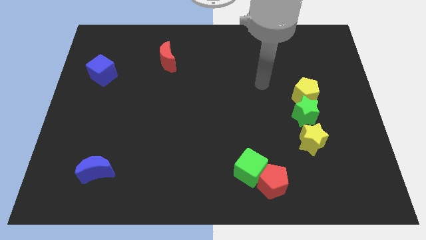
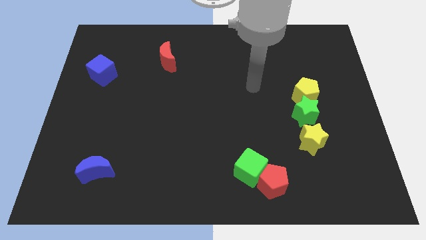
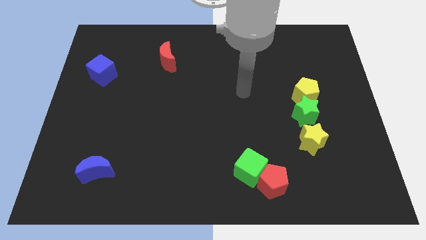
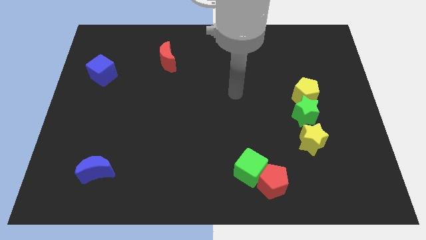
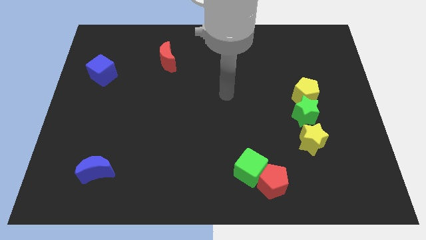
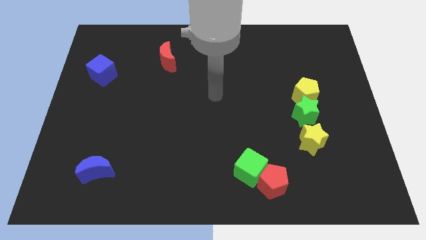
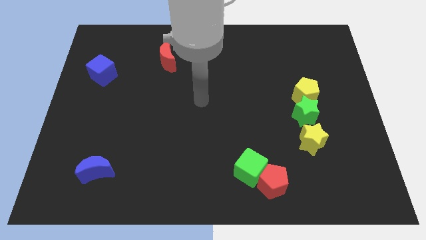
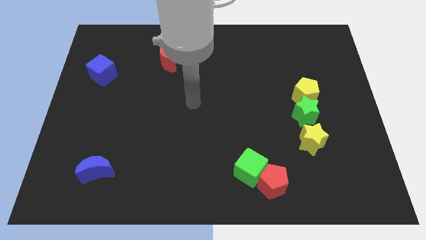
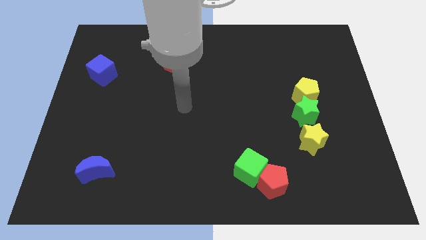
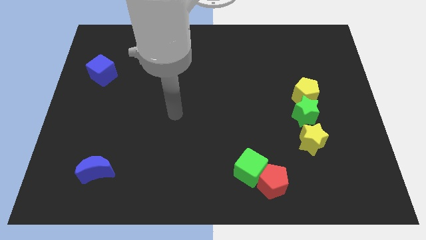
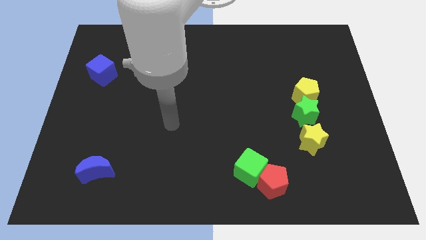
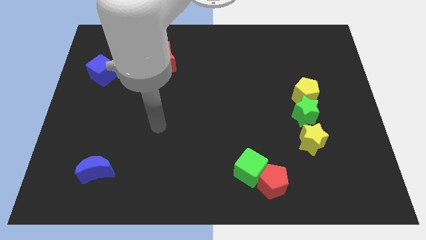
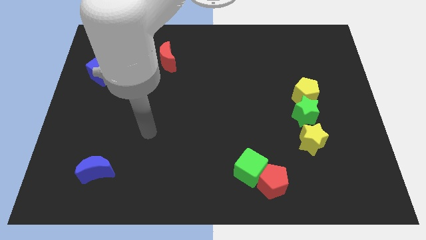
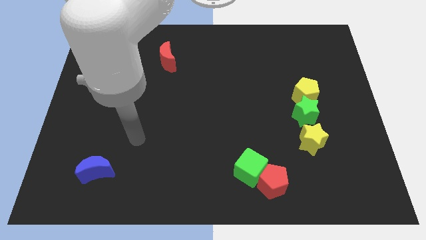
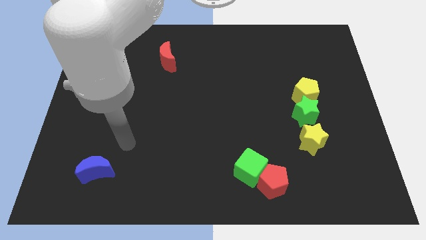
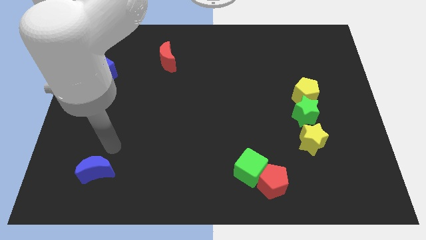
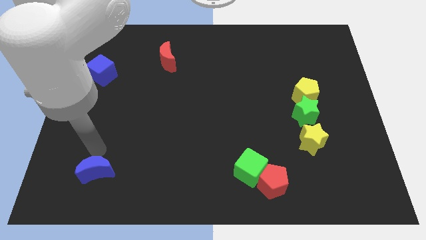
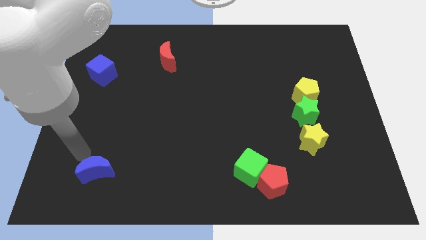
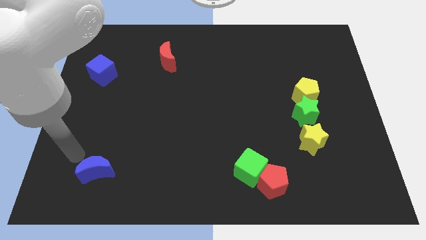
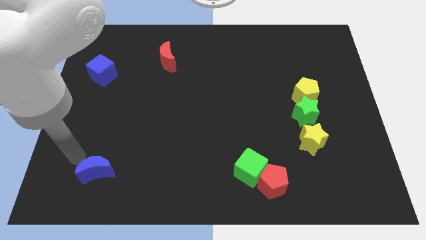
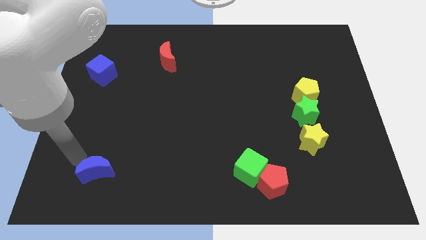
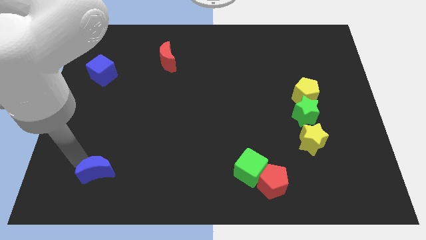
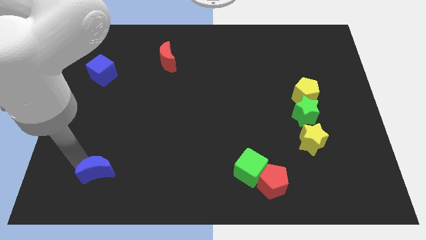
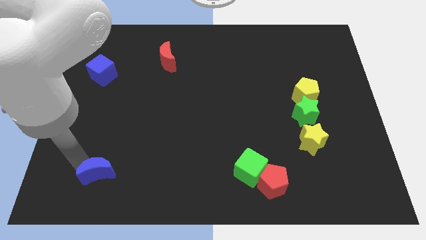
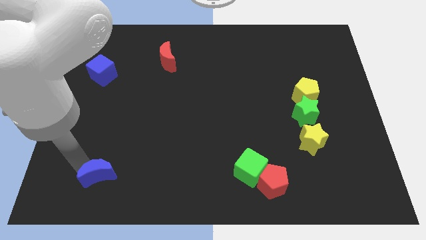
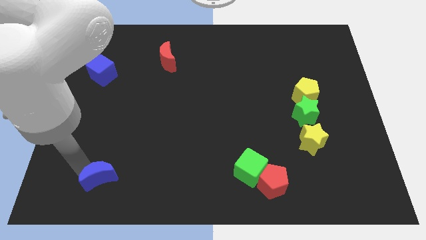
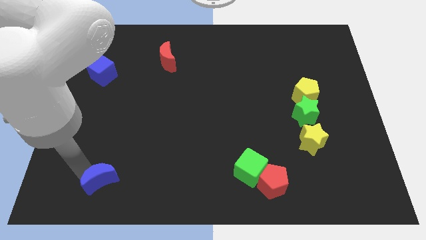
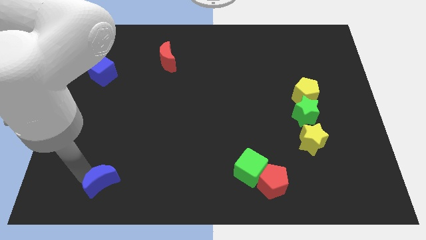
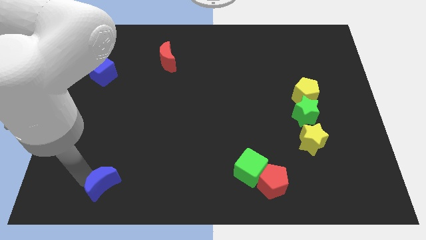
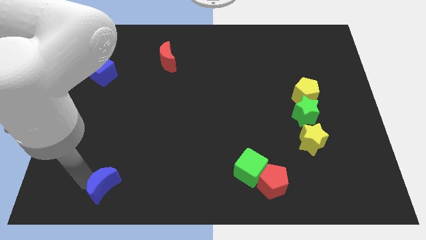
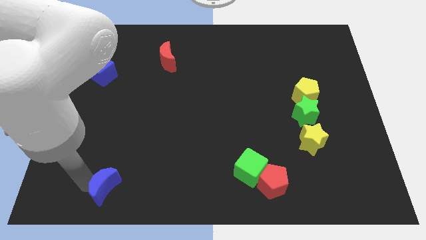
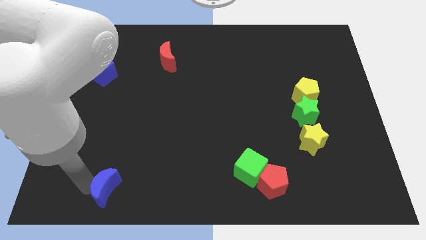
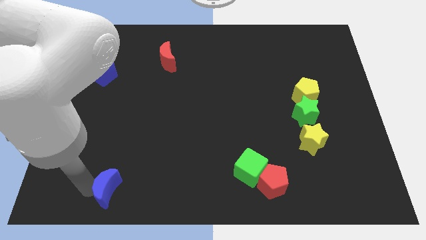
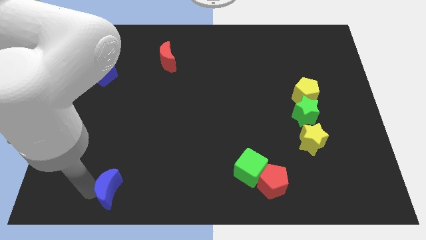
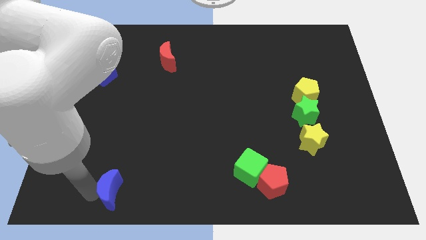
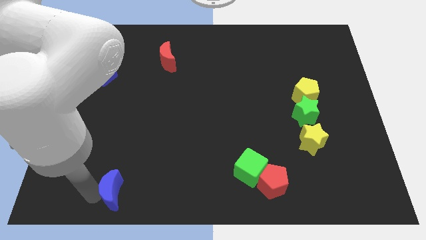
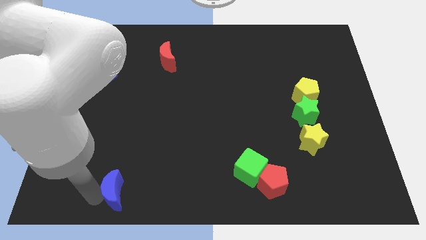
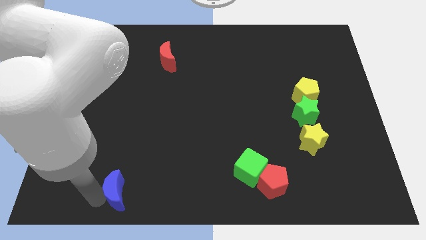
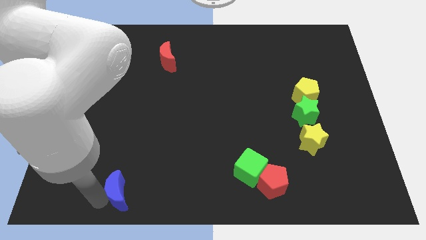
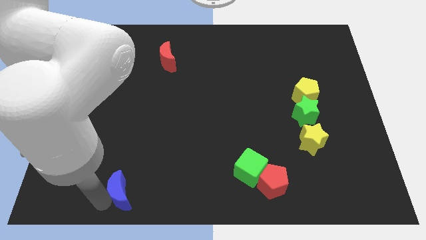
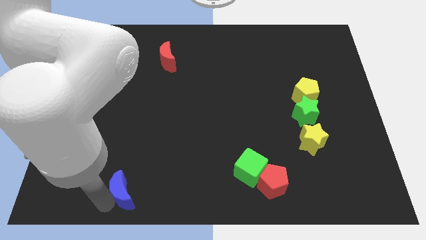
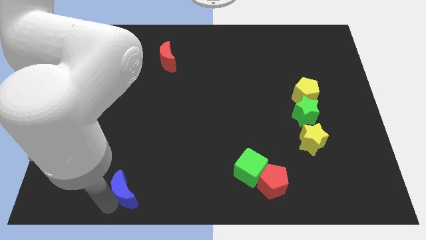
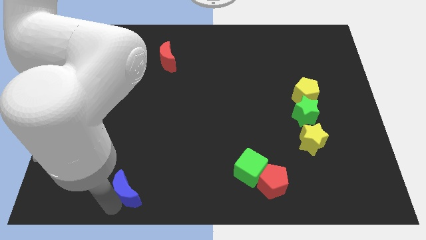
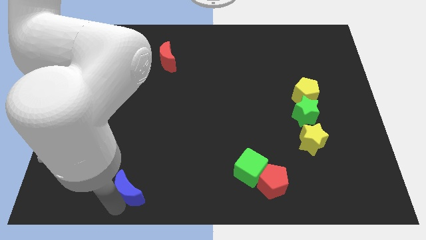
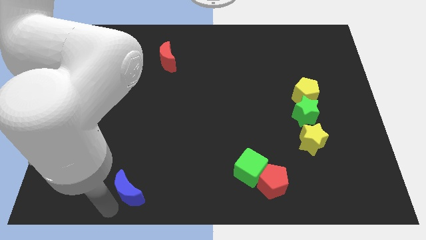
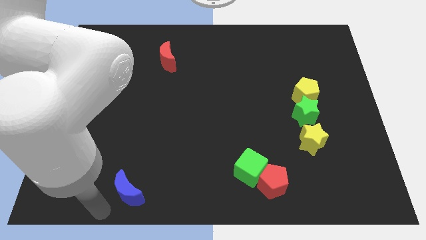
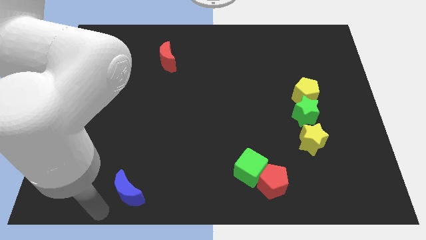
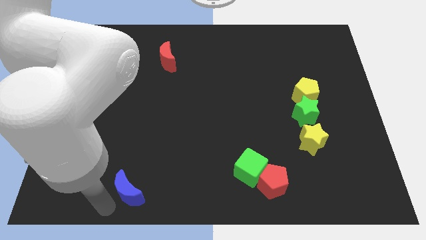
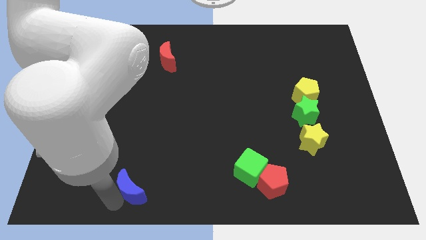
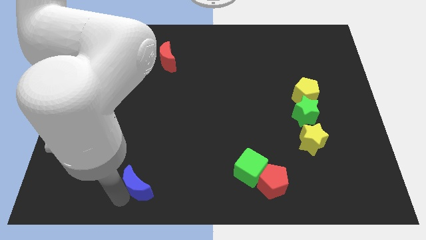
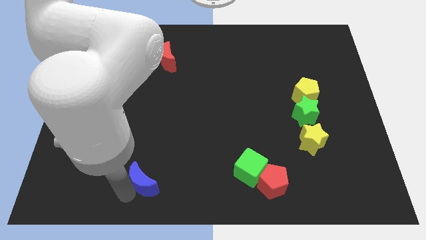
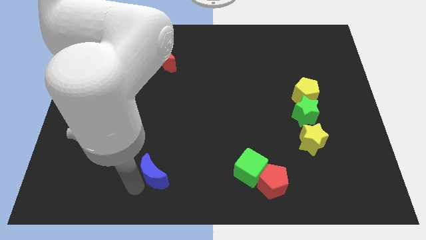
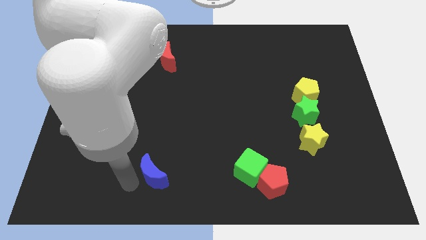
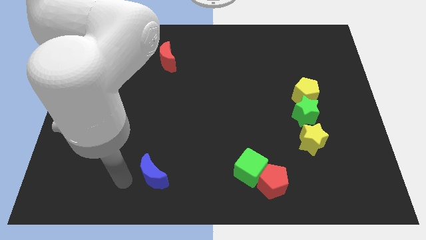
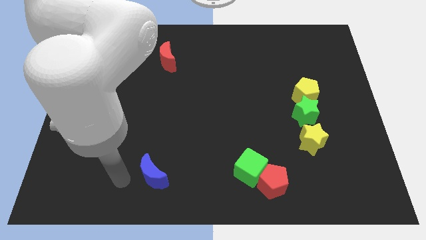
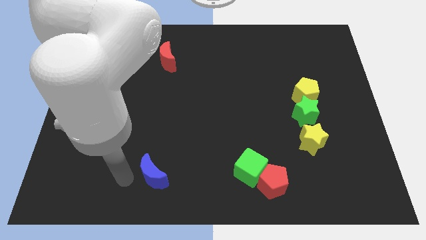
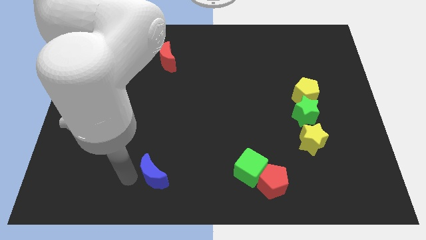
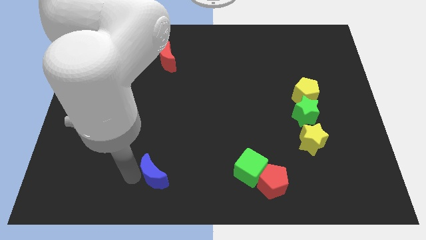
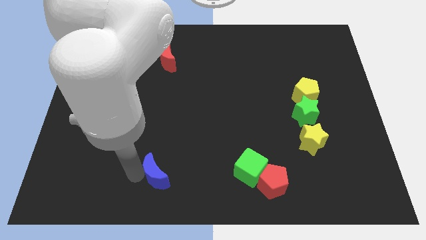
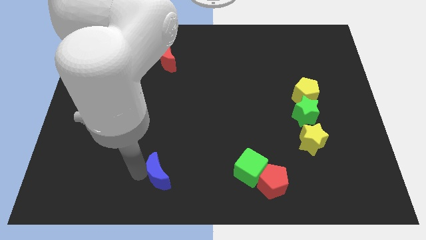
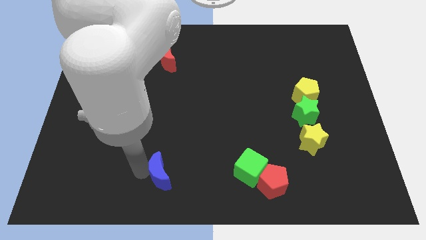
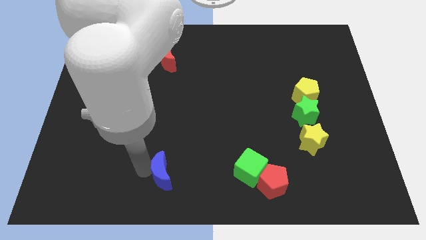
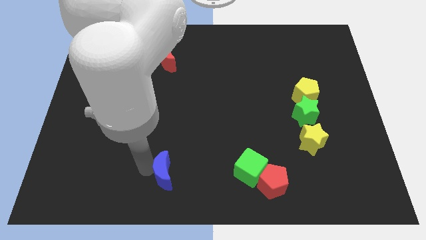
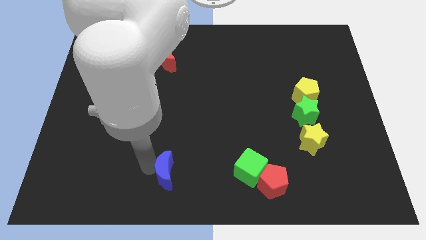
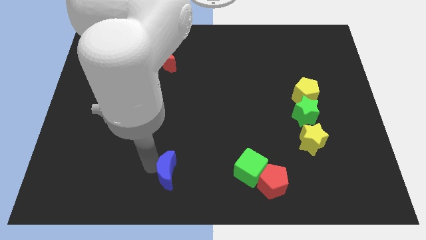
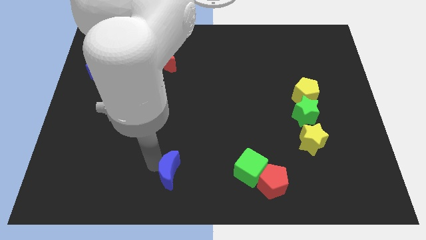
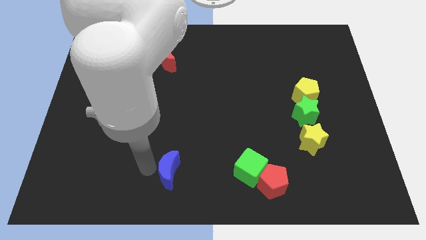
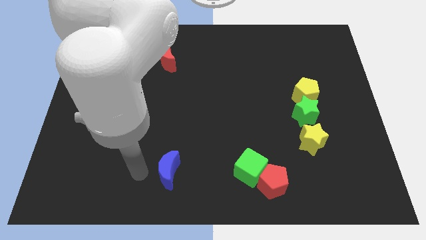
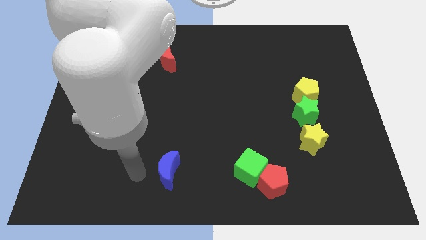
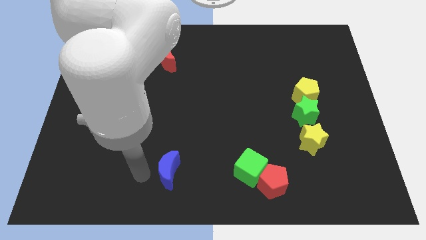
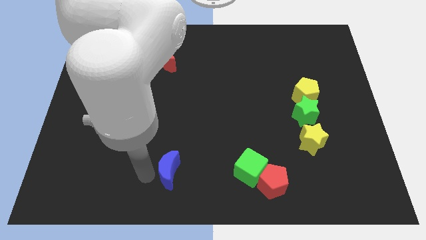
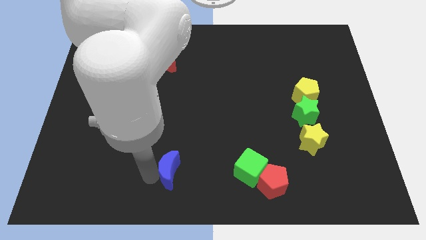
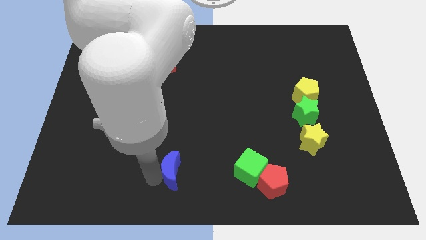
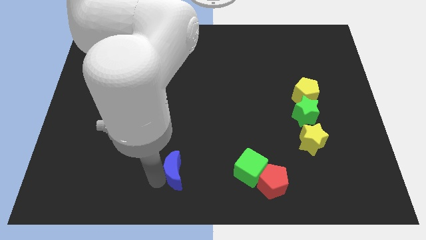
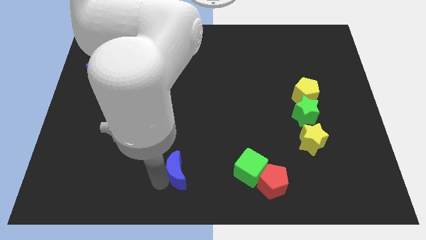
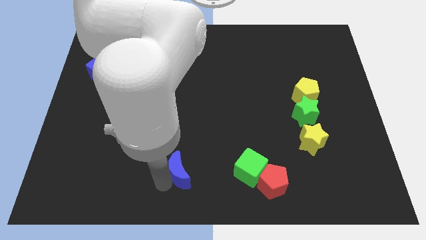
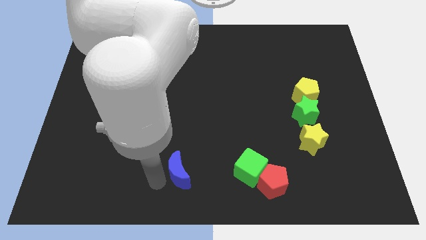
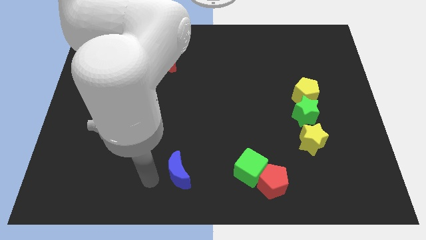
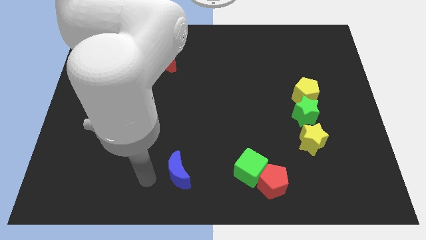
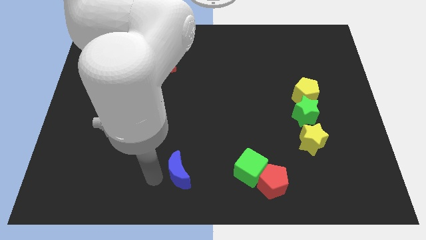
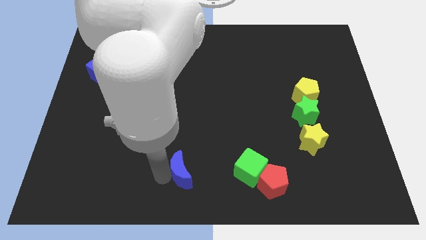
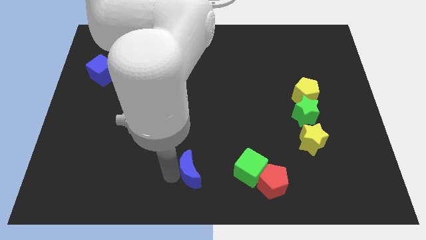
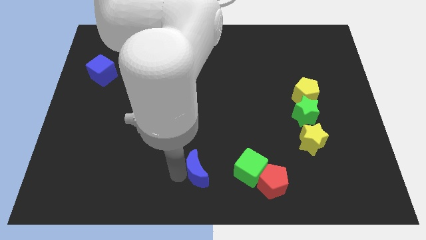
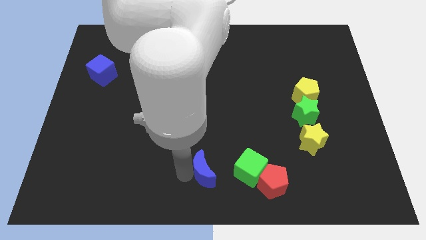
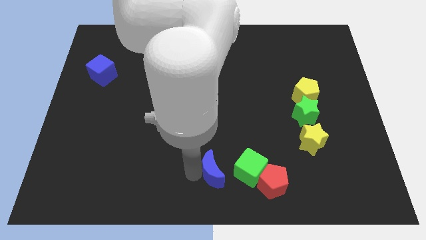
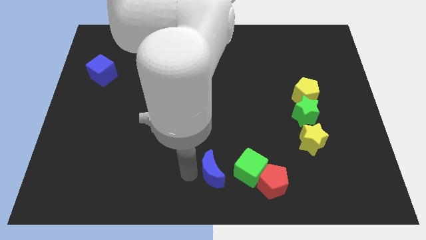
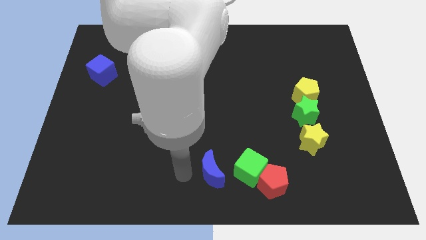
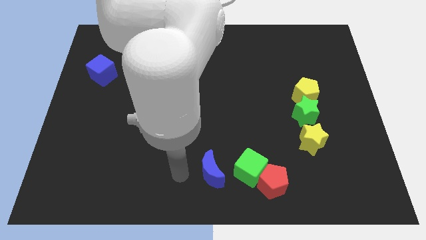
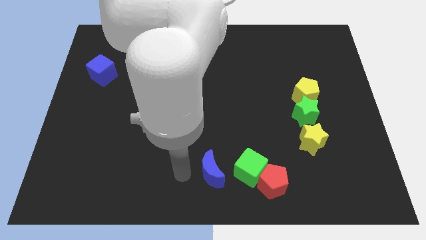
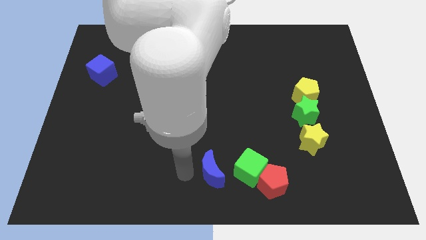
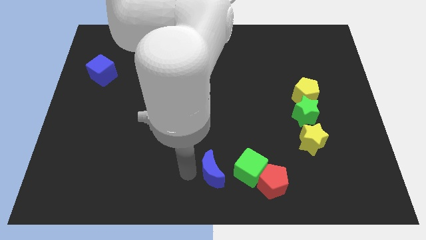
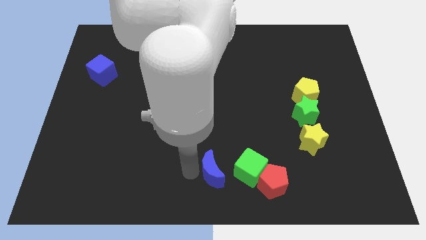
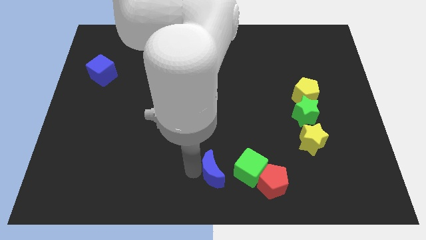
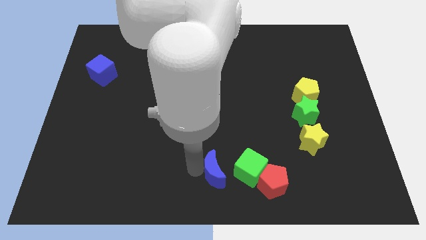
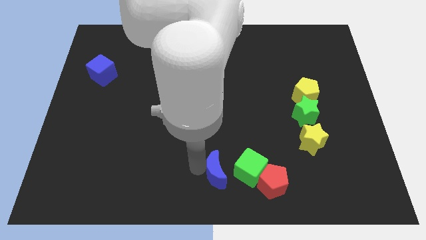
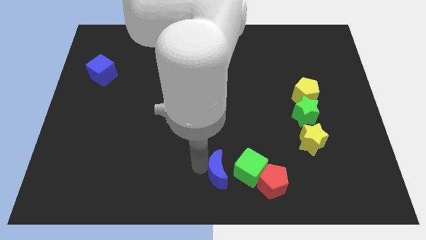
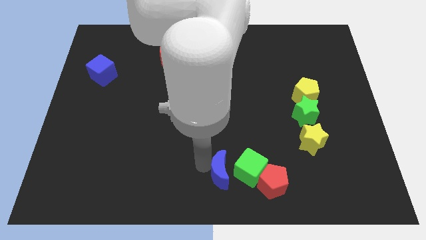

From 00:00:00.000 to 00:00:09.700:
push the blue moon next to the green cube
